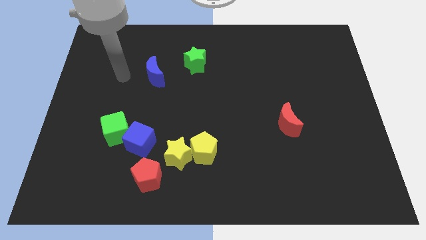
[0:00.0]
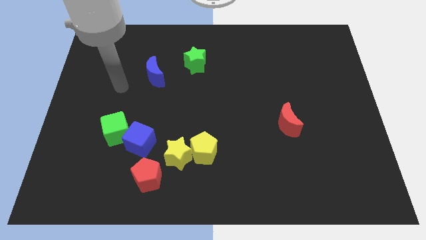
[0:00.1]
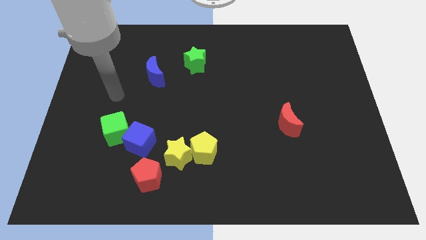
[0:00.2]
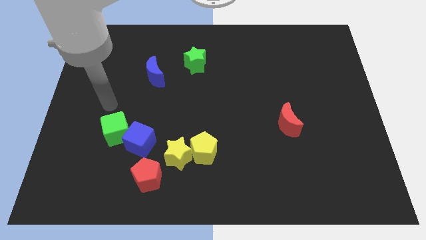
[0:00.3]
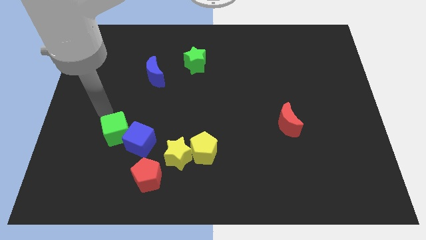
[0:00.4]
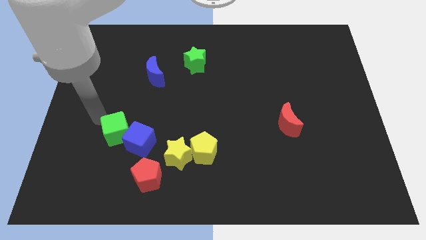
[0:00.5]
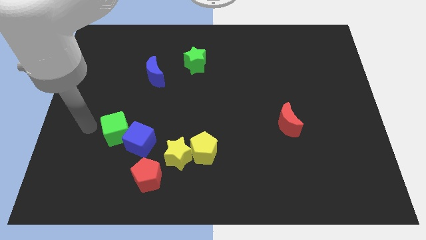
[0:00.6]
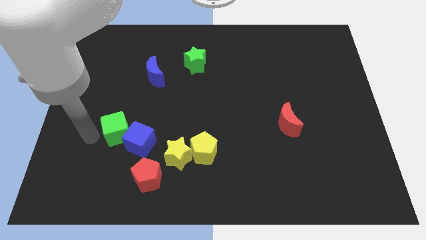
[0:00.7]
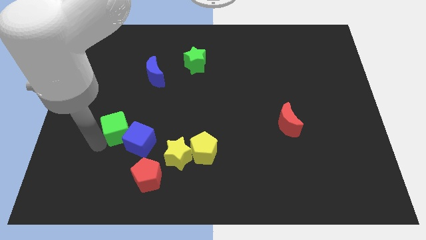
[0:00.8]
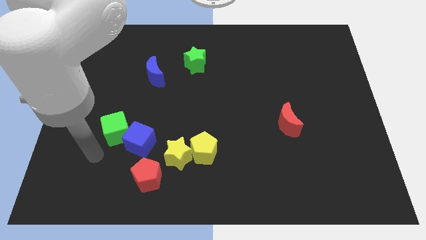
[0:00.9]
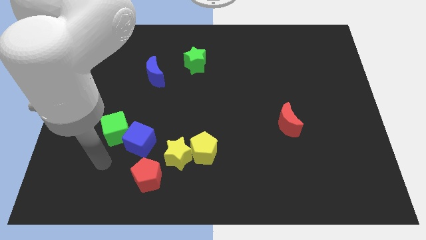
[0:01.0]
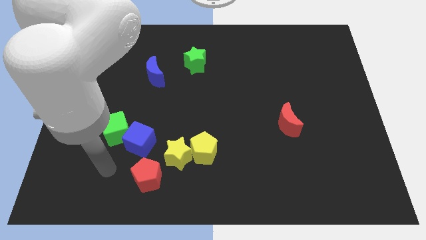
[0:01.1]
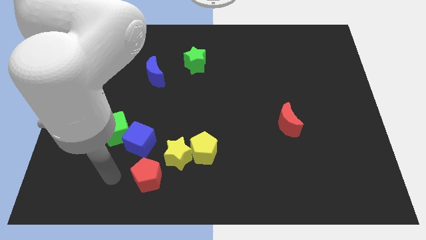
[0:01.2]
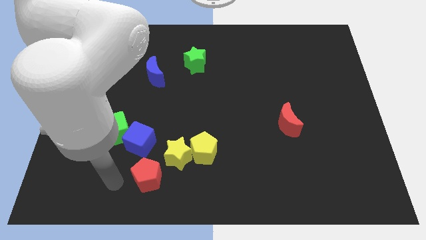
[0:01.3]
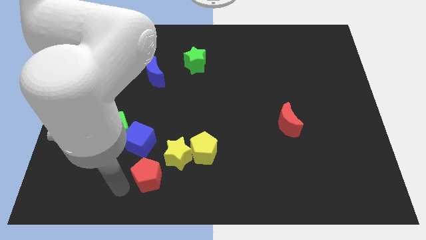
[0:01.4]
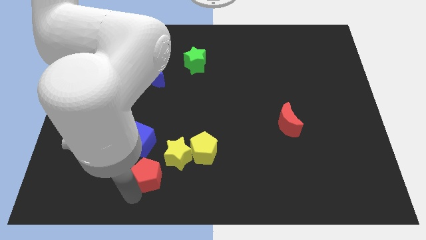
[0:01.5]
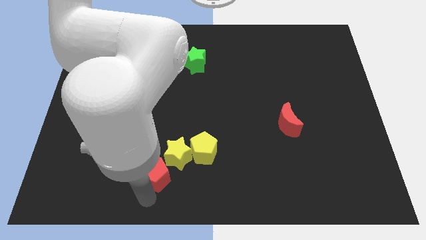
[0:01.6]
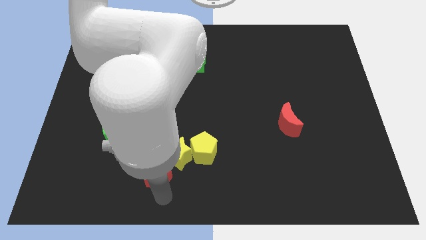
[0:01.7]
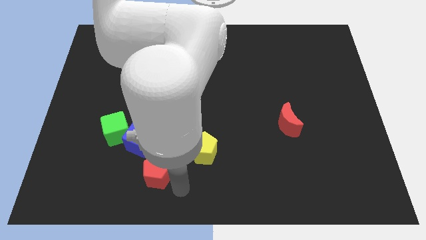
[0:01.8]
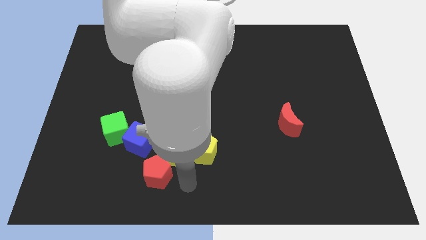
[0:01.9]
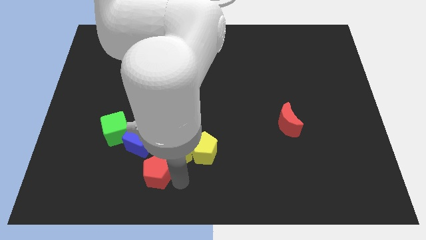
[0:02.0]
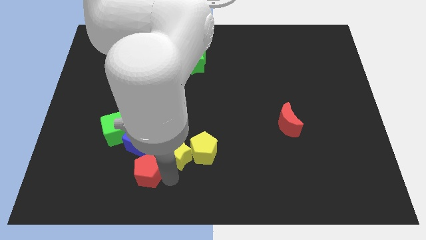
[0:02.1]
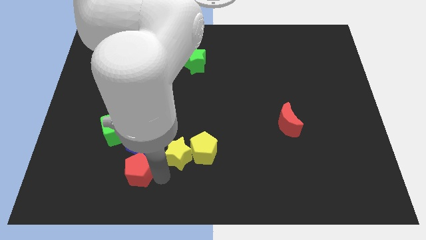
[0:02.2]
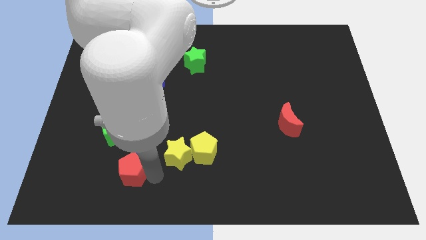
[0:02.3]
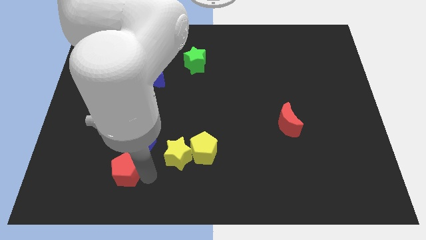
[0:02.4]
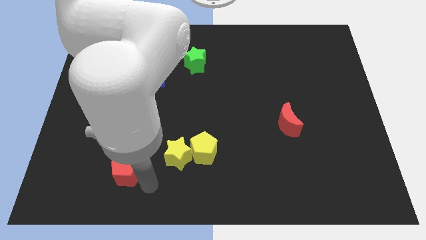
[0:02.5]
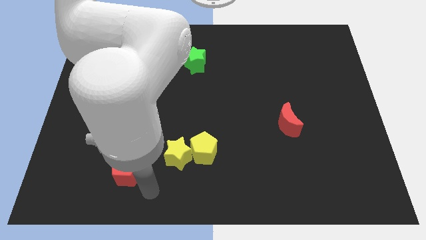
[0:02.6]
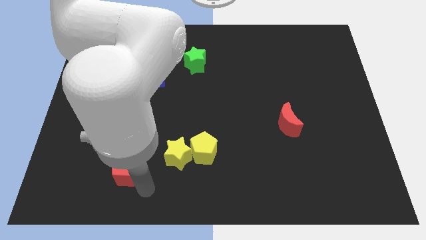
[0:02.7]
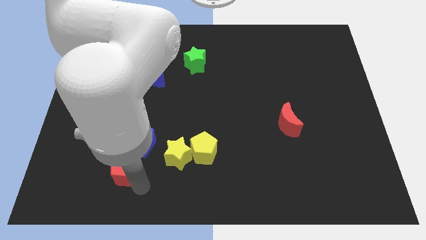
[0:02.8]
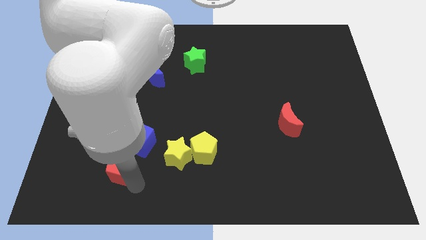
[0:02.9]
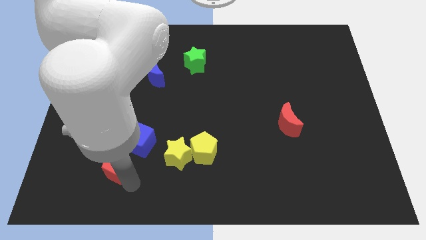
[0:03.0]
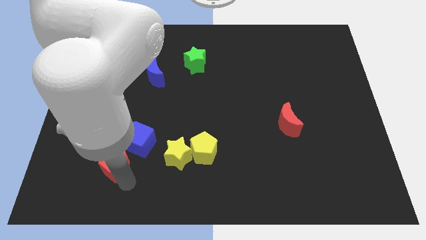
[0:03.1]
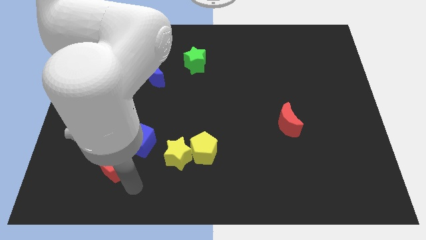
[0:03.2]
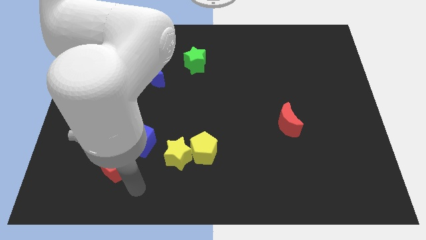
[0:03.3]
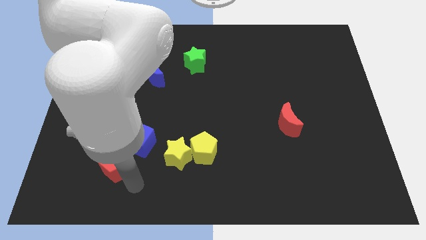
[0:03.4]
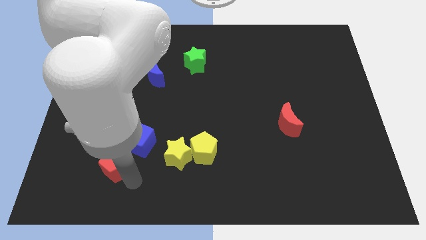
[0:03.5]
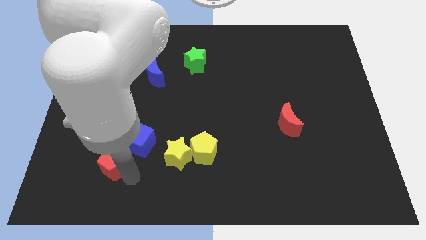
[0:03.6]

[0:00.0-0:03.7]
slightly move the red pentagon diagonally up and left

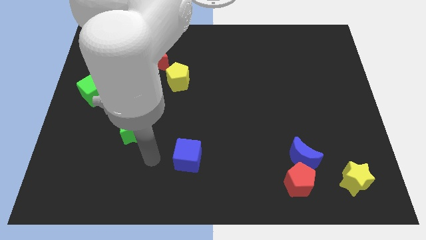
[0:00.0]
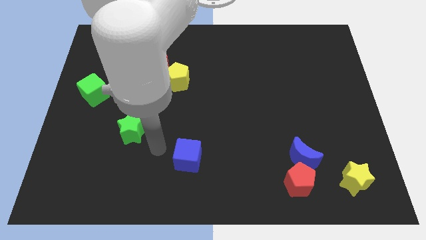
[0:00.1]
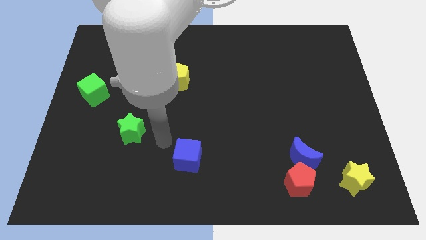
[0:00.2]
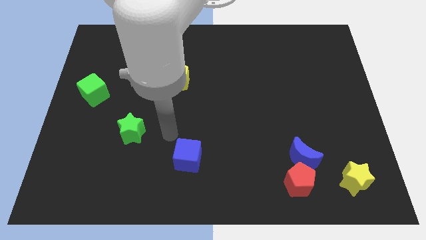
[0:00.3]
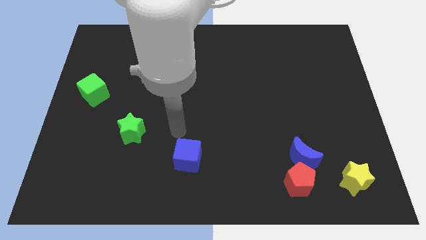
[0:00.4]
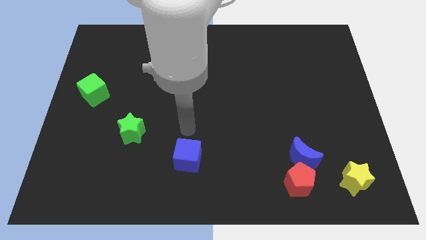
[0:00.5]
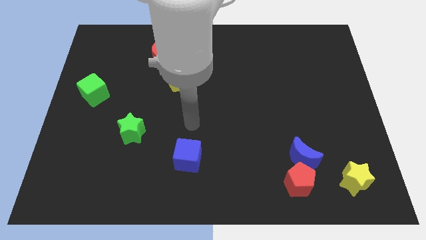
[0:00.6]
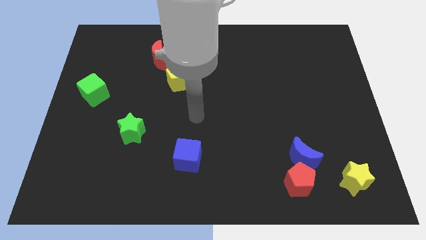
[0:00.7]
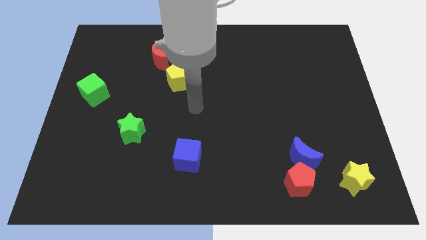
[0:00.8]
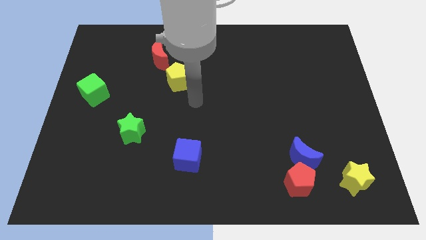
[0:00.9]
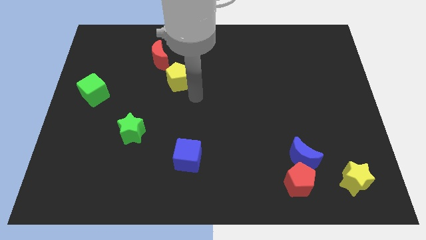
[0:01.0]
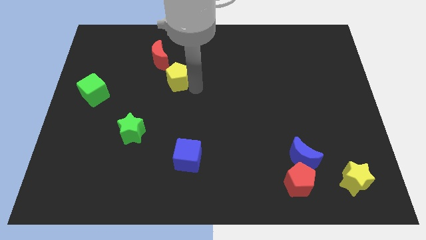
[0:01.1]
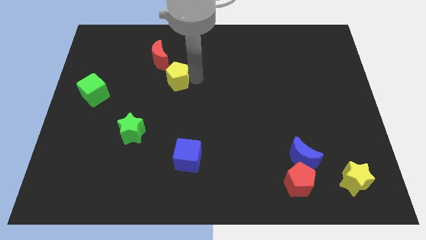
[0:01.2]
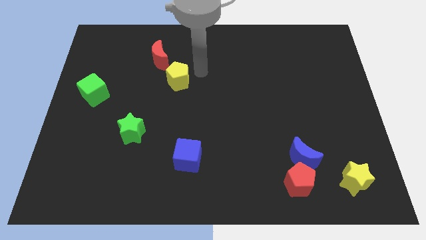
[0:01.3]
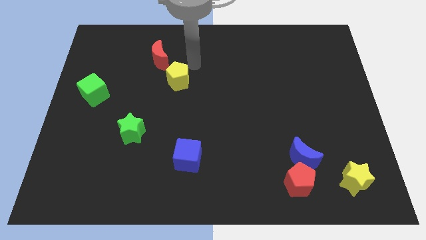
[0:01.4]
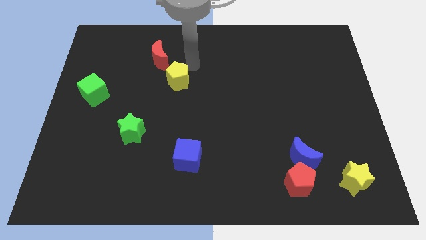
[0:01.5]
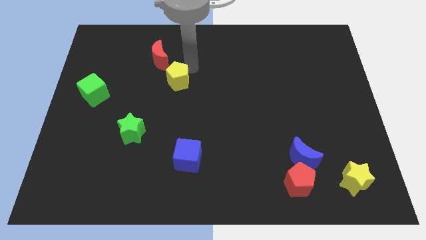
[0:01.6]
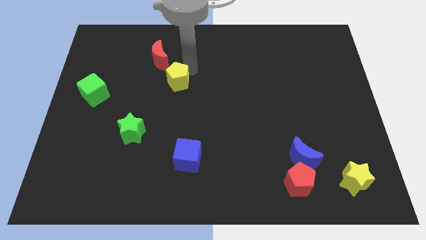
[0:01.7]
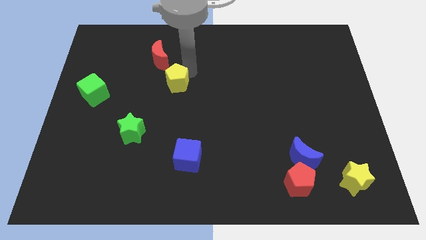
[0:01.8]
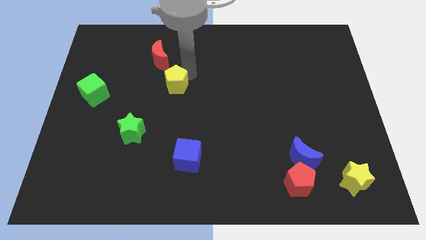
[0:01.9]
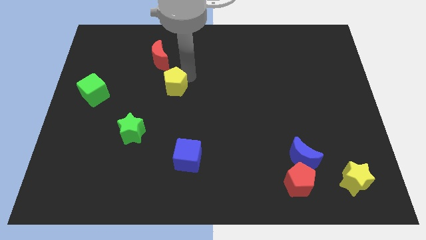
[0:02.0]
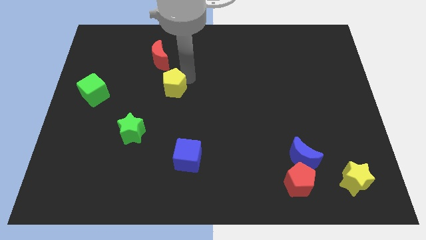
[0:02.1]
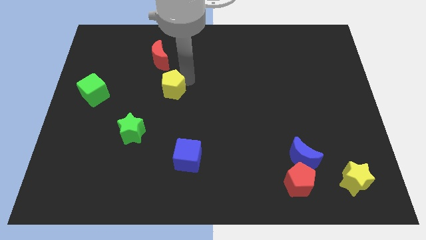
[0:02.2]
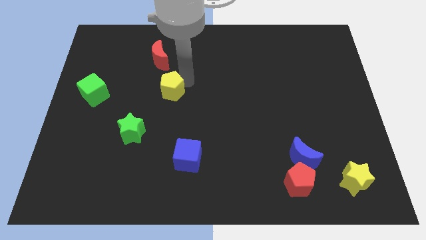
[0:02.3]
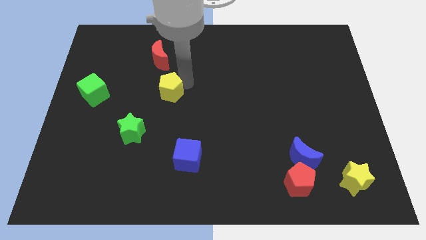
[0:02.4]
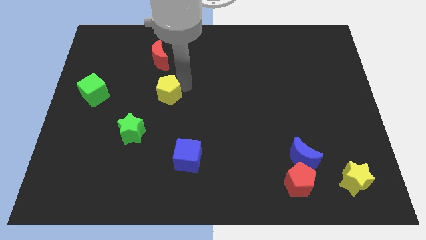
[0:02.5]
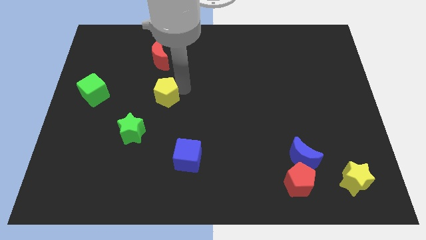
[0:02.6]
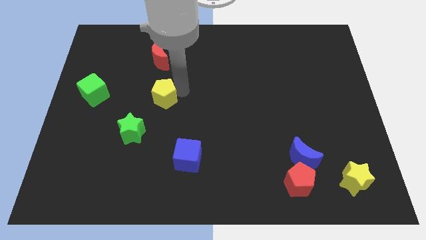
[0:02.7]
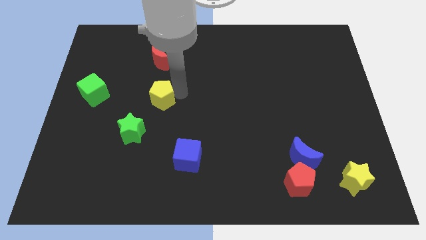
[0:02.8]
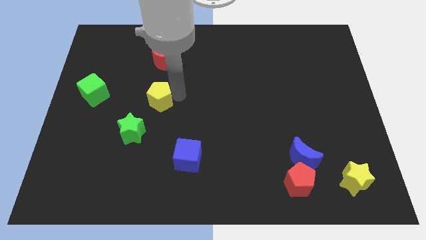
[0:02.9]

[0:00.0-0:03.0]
push the yellow pentagon diagonally downwards and to the left a little

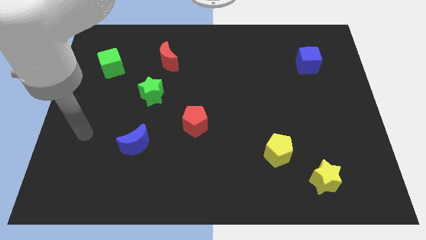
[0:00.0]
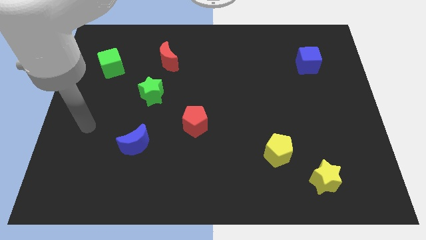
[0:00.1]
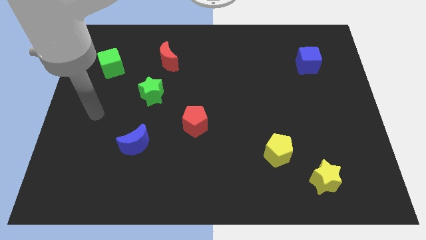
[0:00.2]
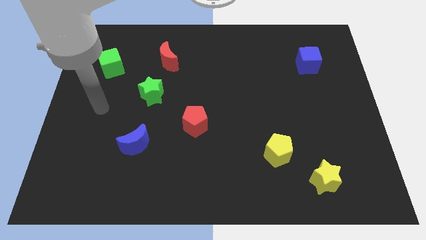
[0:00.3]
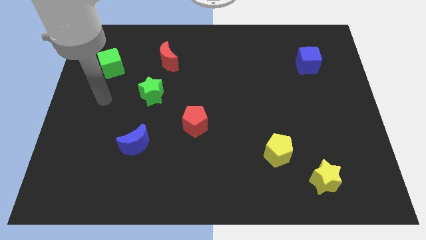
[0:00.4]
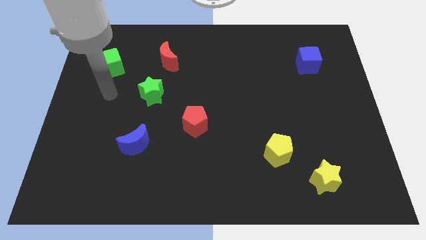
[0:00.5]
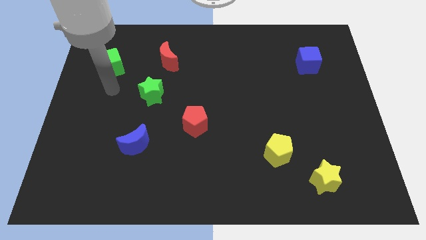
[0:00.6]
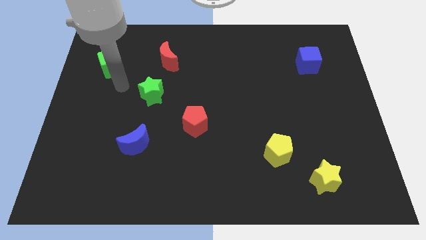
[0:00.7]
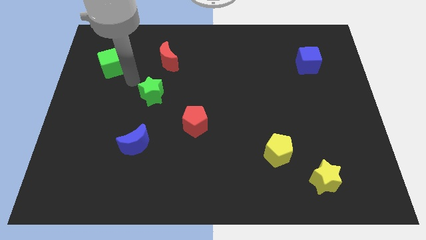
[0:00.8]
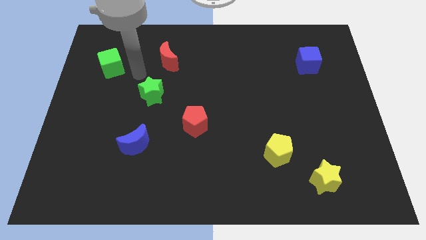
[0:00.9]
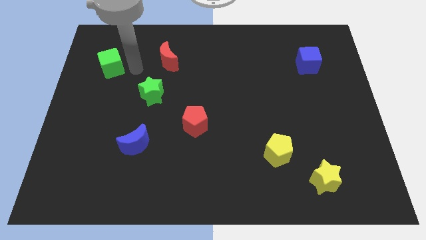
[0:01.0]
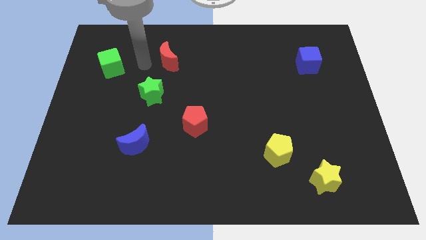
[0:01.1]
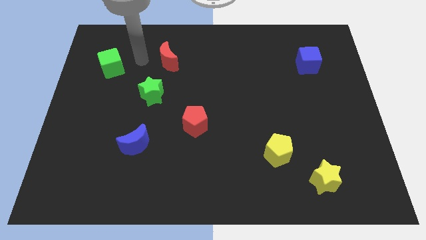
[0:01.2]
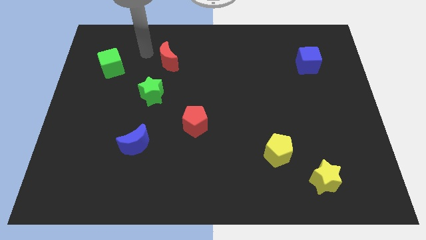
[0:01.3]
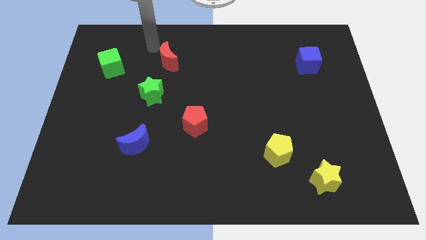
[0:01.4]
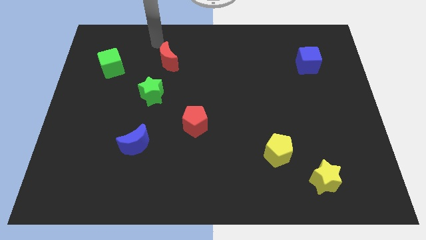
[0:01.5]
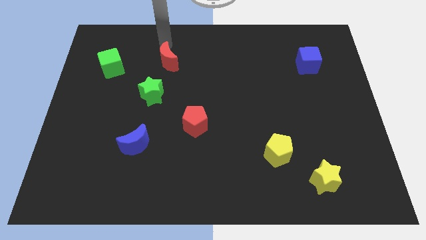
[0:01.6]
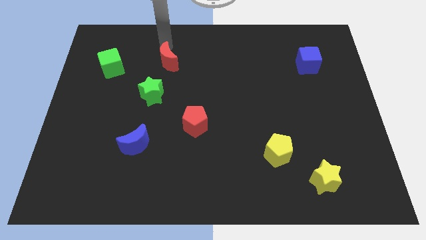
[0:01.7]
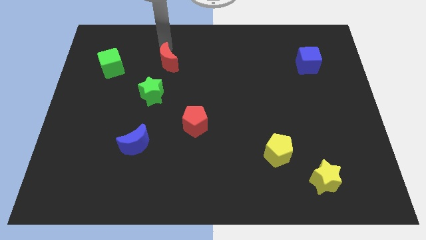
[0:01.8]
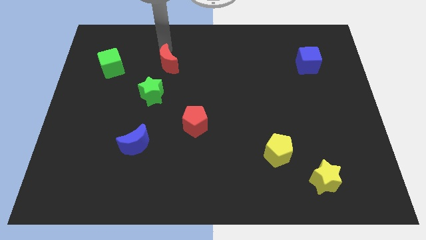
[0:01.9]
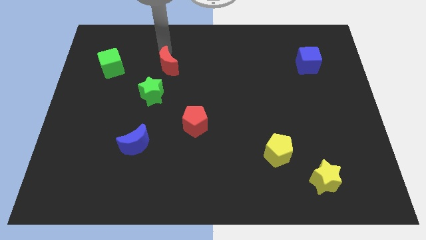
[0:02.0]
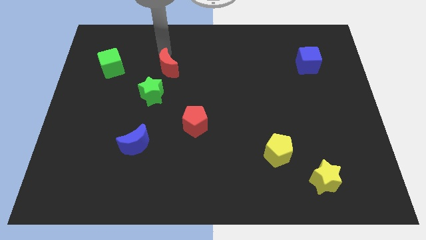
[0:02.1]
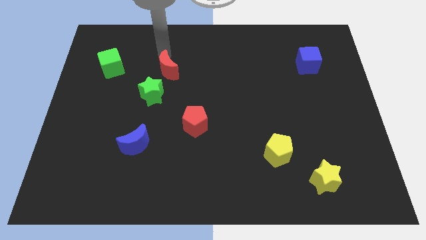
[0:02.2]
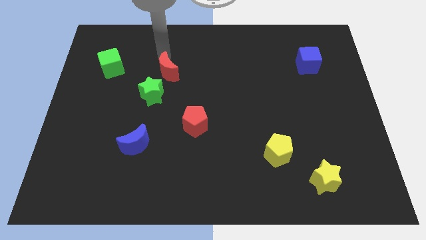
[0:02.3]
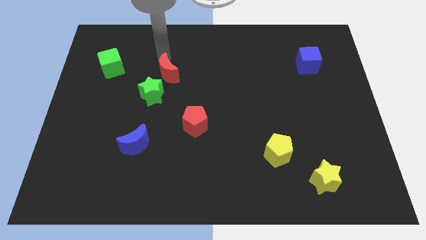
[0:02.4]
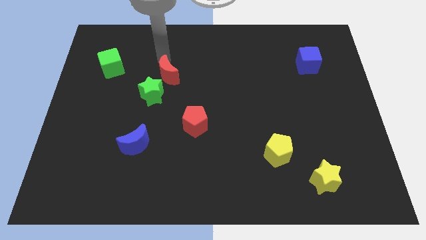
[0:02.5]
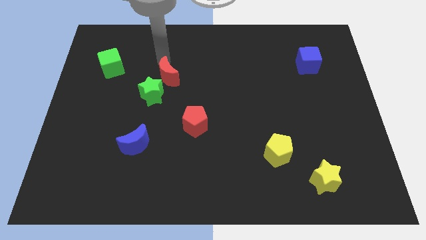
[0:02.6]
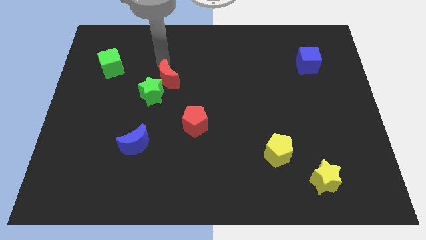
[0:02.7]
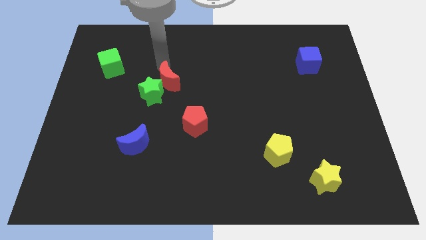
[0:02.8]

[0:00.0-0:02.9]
slightly move the red moon downwards
